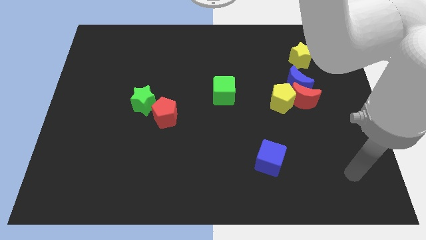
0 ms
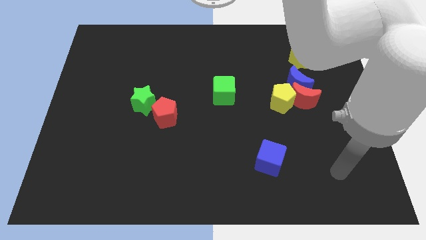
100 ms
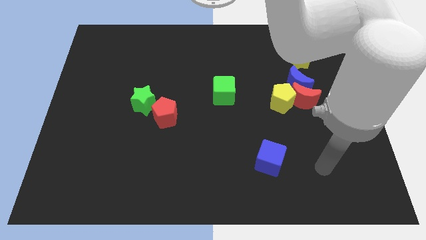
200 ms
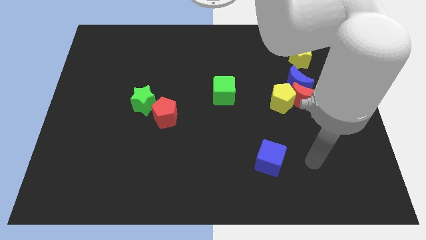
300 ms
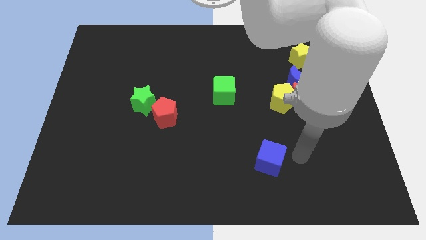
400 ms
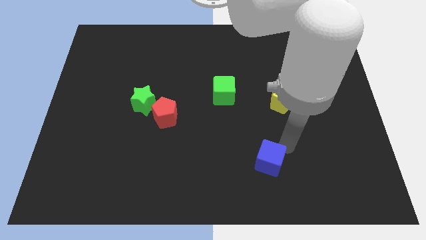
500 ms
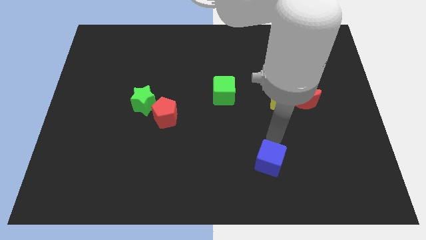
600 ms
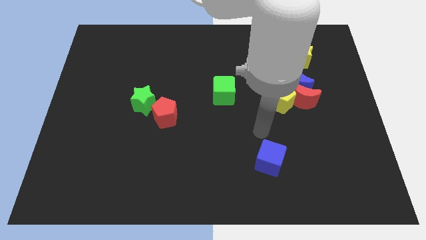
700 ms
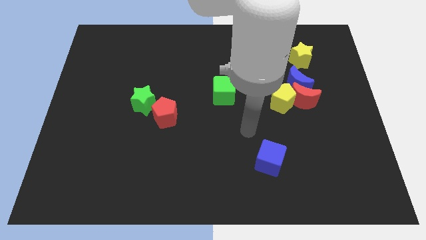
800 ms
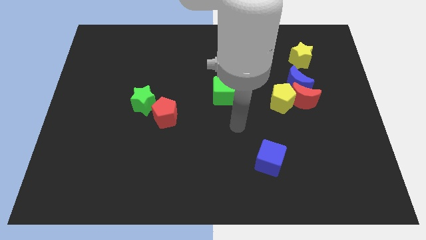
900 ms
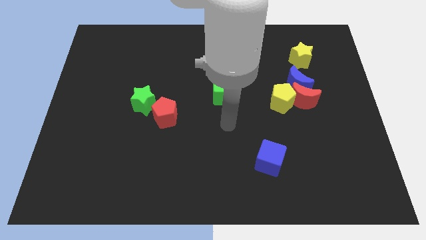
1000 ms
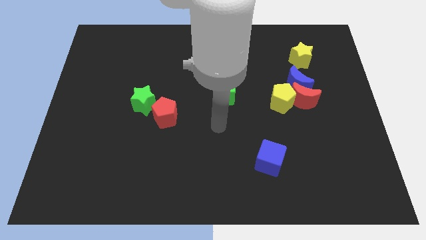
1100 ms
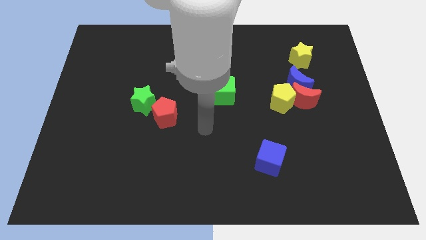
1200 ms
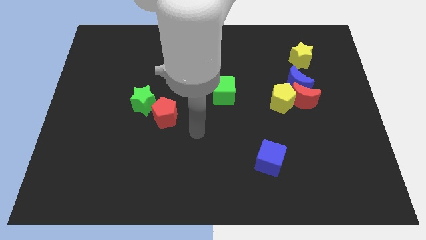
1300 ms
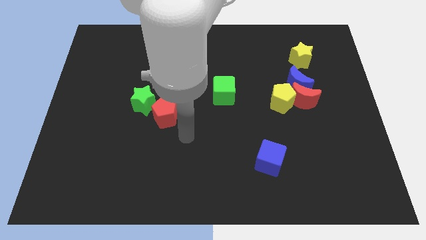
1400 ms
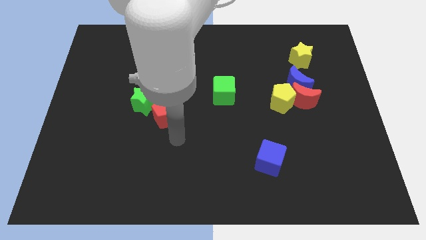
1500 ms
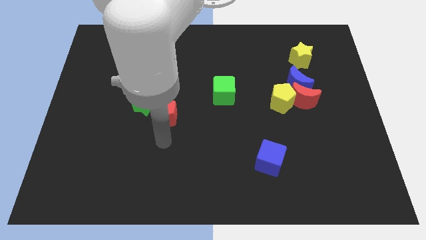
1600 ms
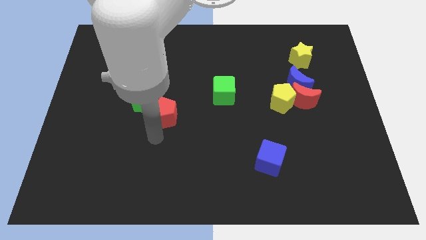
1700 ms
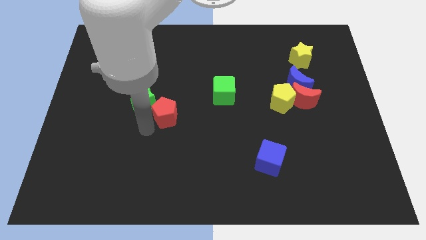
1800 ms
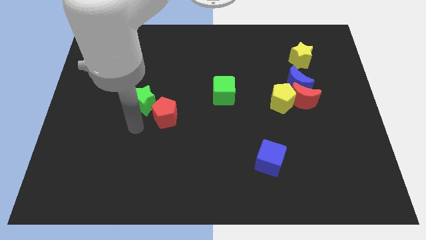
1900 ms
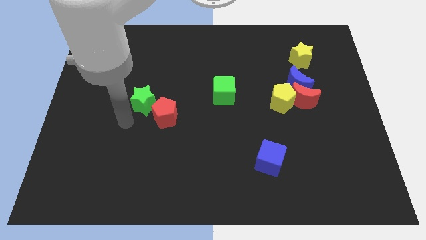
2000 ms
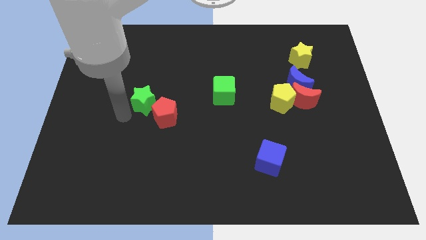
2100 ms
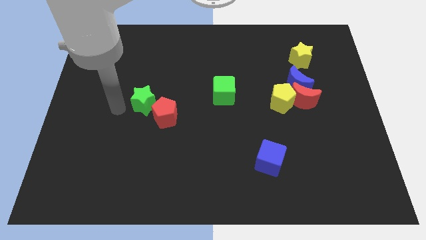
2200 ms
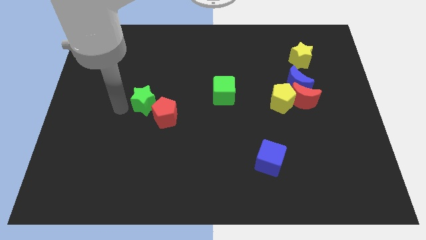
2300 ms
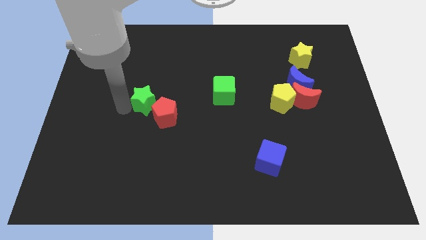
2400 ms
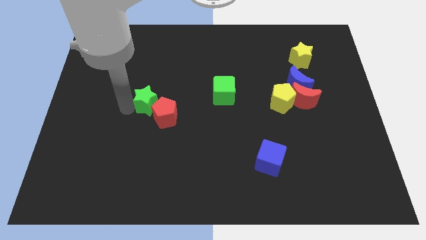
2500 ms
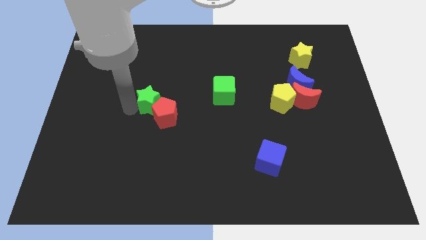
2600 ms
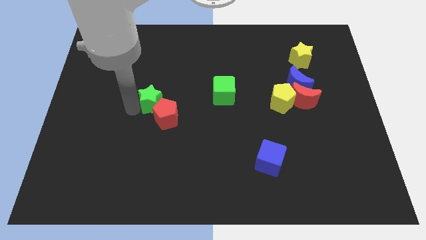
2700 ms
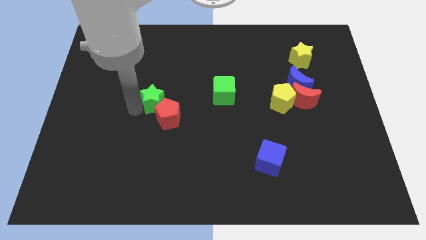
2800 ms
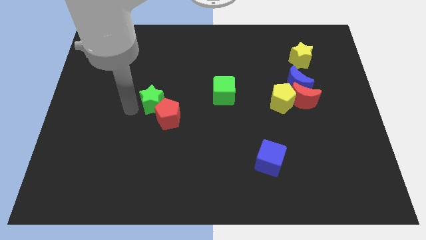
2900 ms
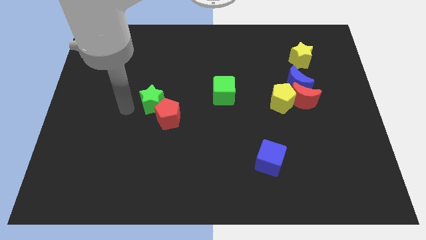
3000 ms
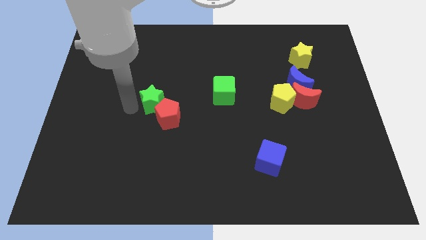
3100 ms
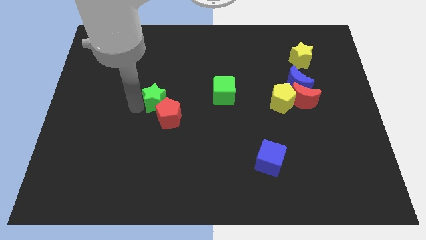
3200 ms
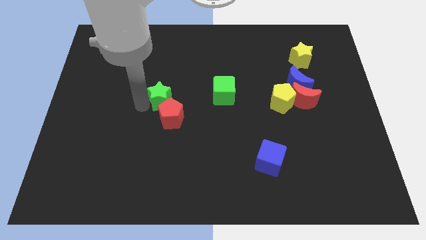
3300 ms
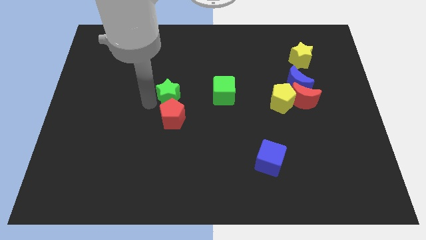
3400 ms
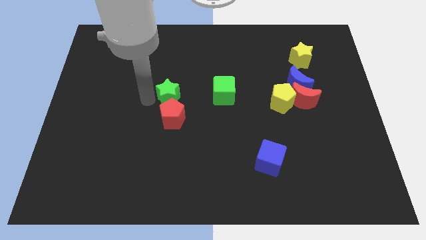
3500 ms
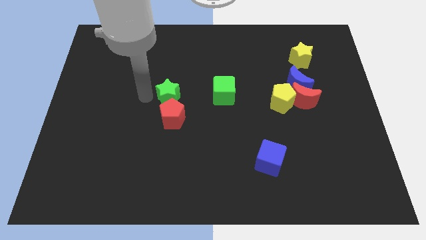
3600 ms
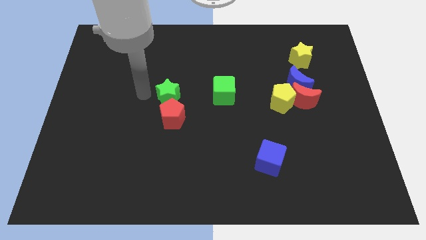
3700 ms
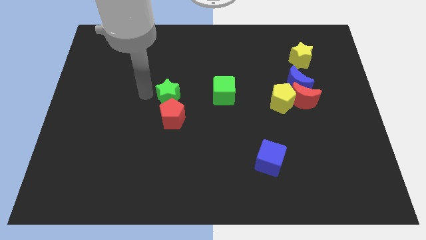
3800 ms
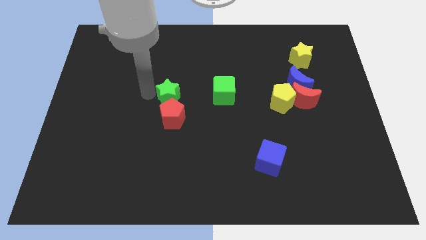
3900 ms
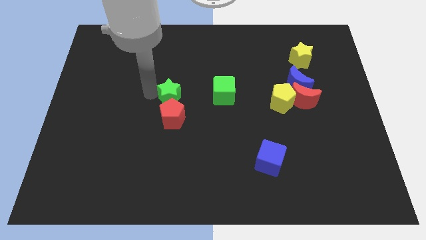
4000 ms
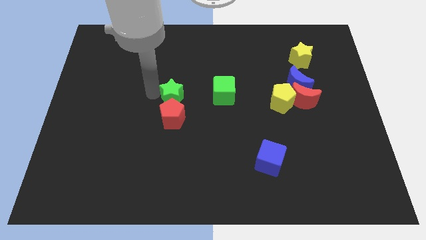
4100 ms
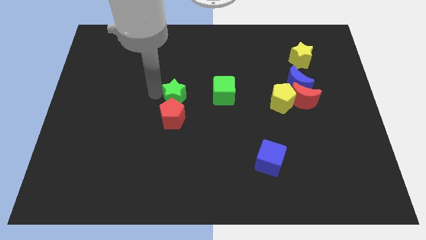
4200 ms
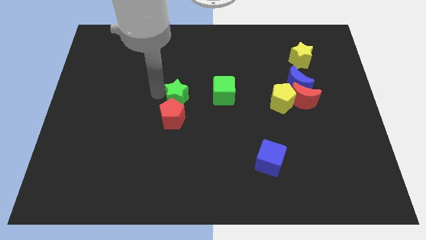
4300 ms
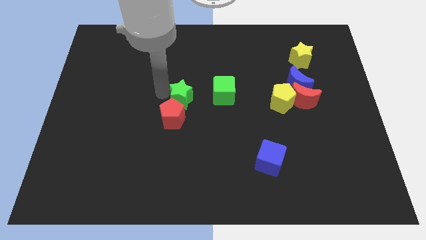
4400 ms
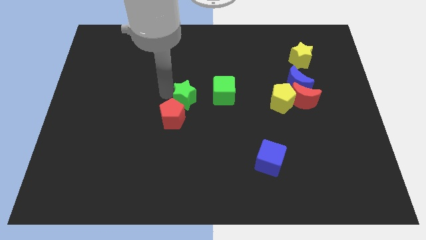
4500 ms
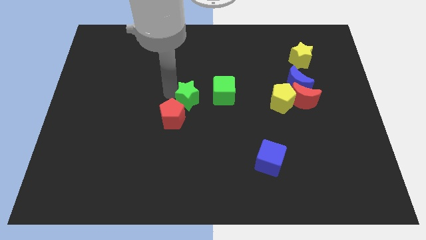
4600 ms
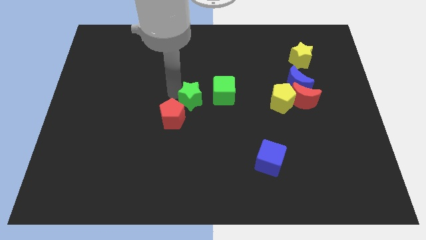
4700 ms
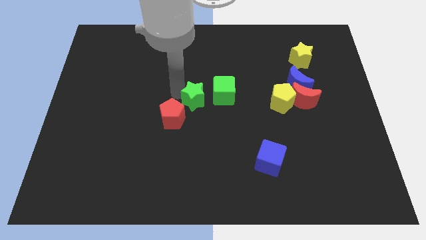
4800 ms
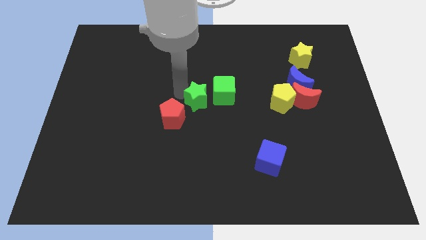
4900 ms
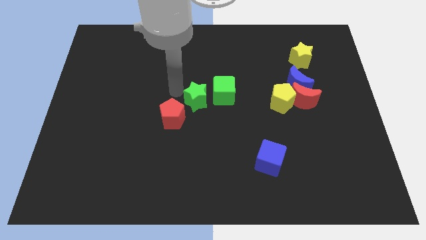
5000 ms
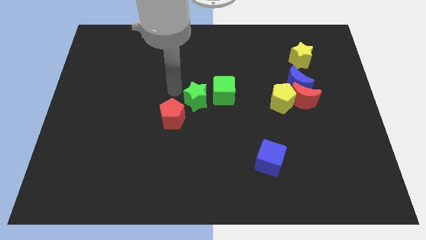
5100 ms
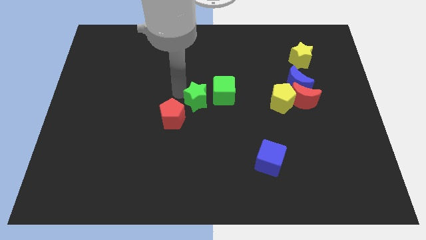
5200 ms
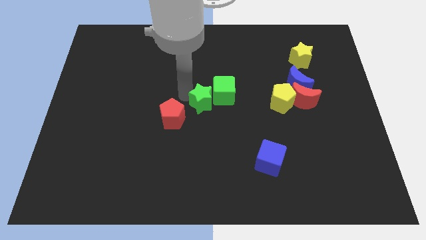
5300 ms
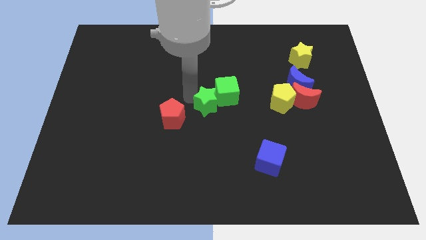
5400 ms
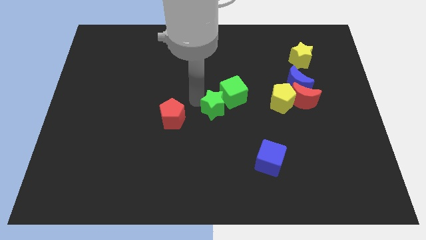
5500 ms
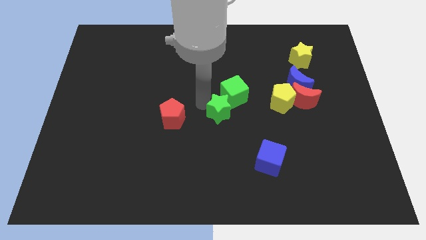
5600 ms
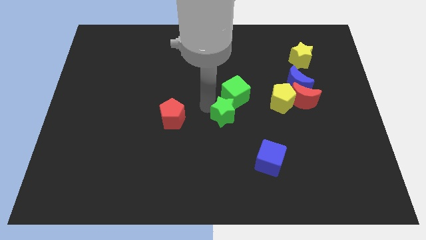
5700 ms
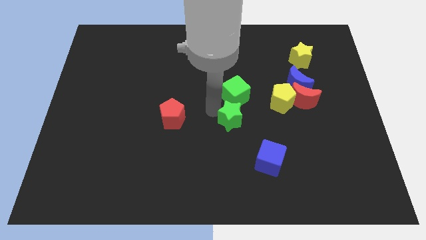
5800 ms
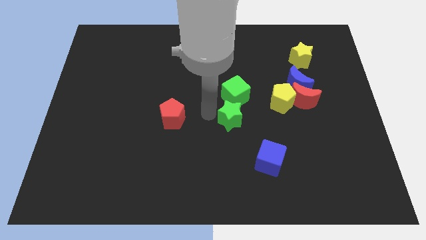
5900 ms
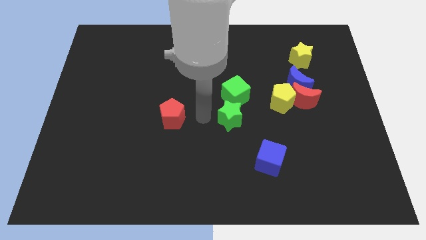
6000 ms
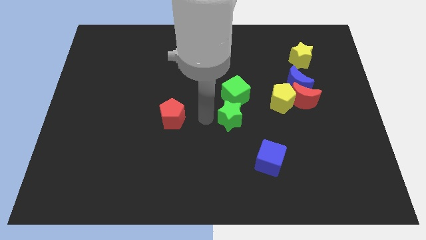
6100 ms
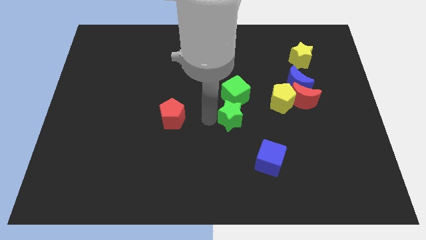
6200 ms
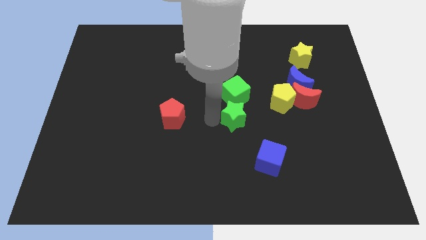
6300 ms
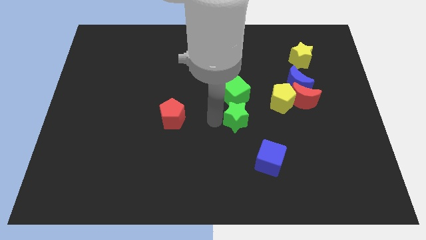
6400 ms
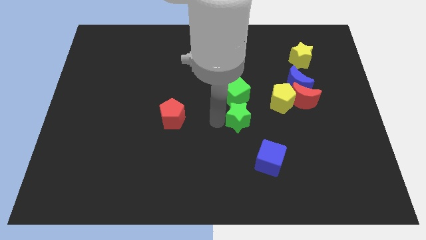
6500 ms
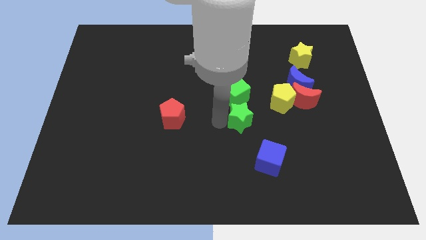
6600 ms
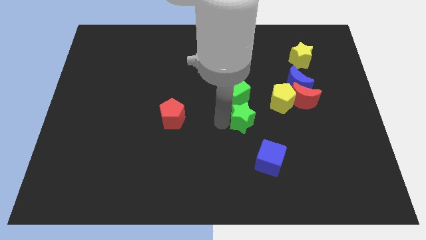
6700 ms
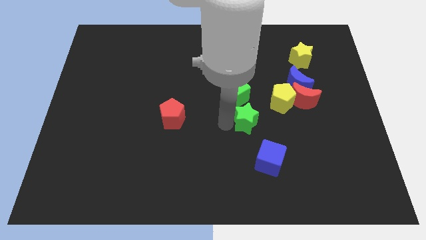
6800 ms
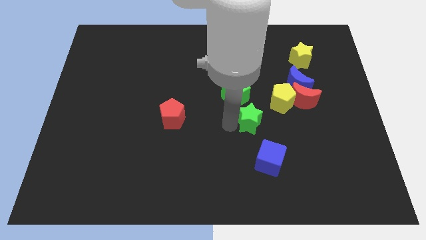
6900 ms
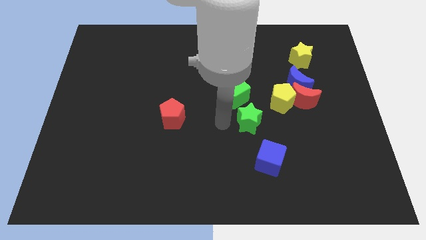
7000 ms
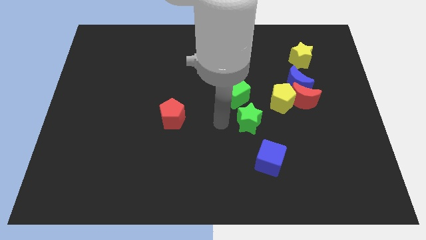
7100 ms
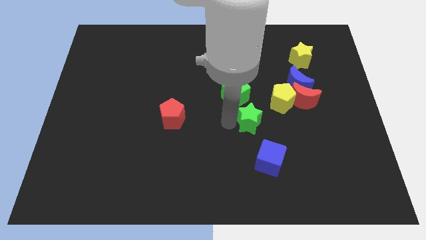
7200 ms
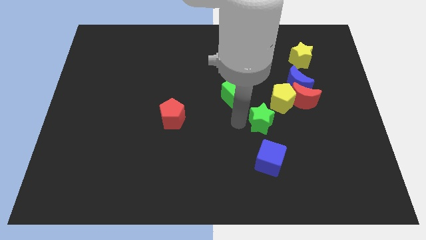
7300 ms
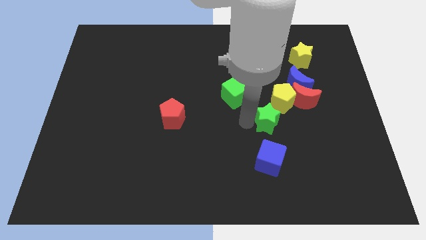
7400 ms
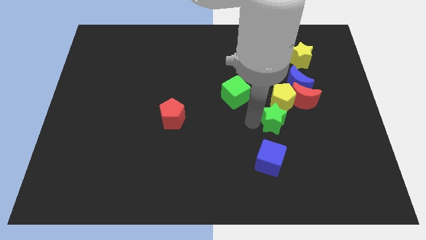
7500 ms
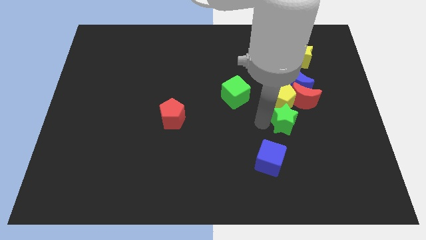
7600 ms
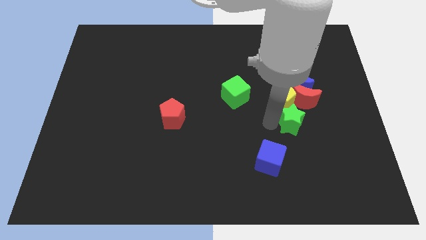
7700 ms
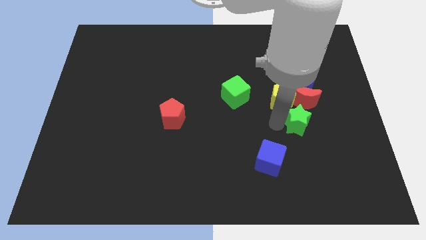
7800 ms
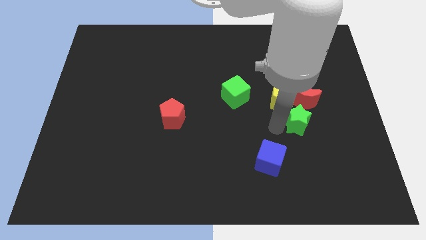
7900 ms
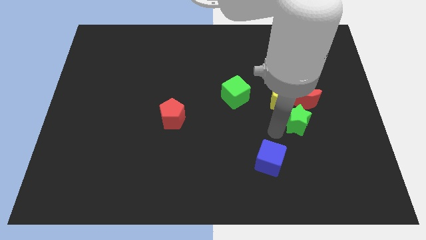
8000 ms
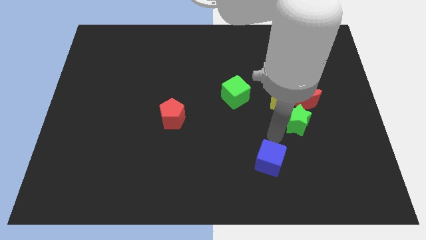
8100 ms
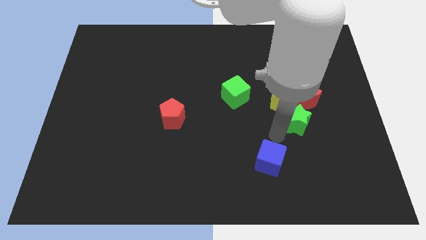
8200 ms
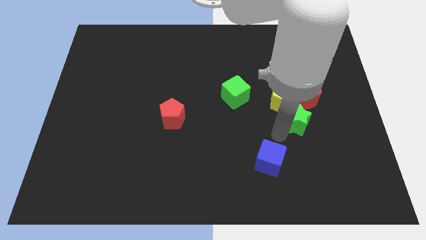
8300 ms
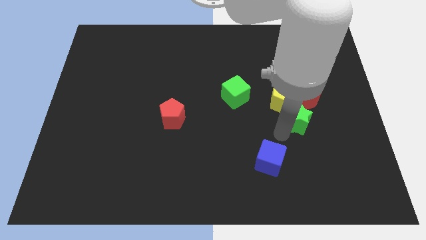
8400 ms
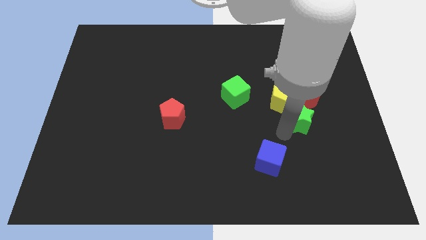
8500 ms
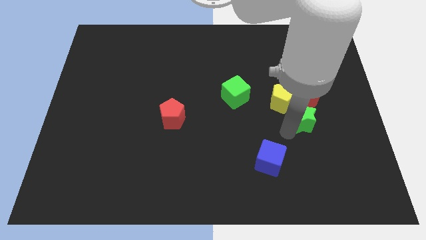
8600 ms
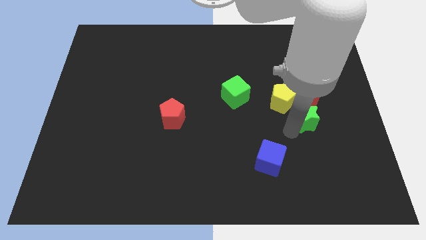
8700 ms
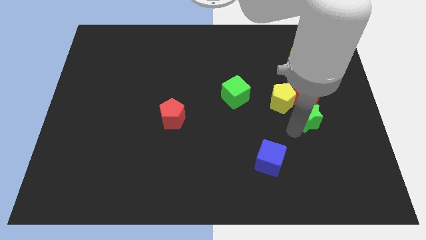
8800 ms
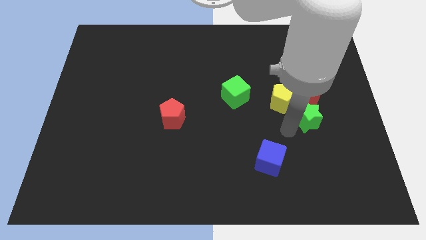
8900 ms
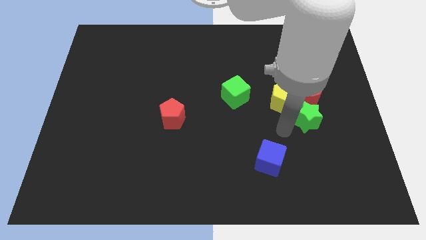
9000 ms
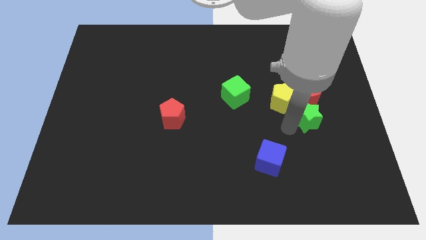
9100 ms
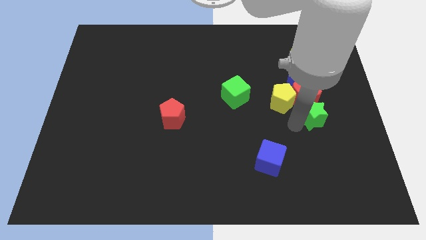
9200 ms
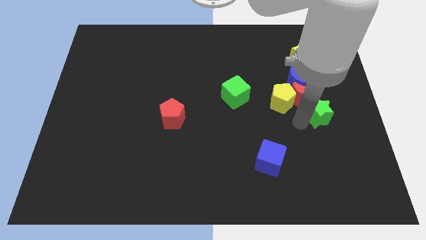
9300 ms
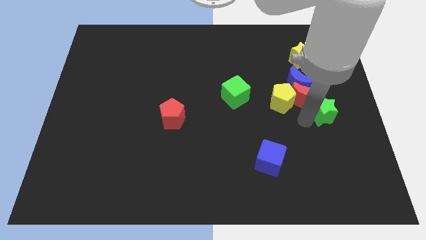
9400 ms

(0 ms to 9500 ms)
move the green star to the center right
